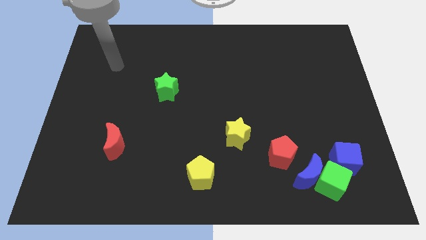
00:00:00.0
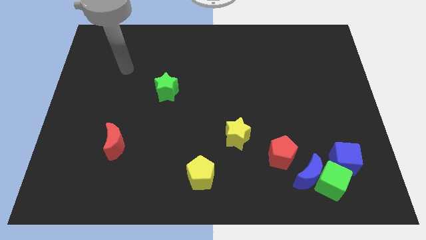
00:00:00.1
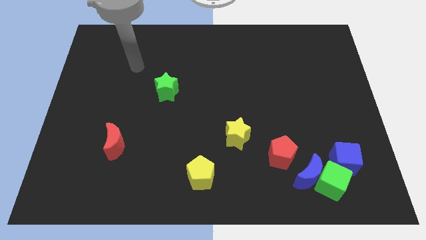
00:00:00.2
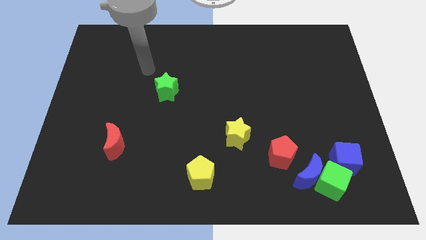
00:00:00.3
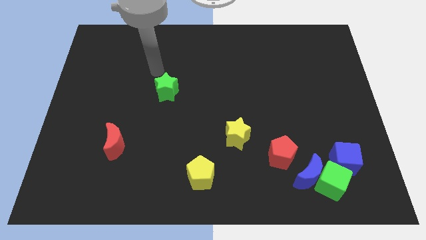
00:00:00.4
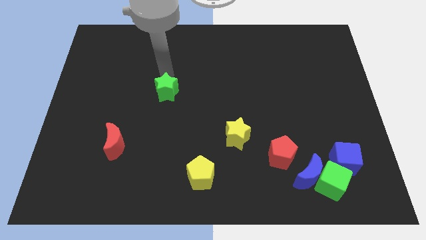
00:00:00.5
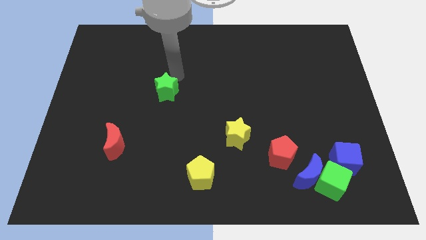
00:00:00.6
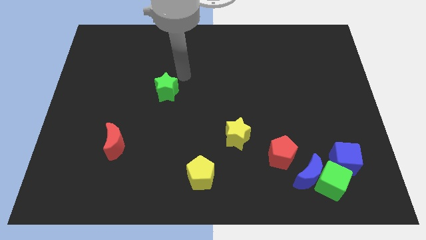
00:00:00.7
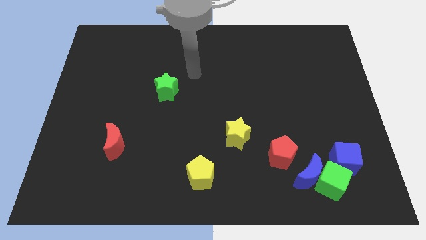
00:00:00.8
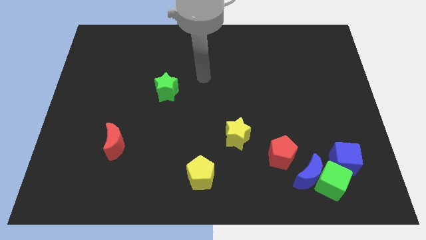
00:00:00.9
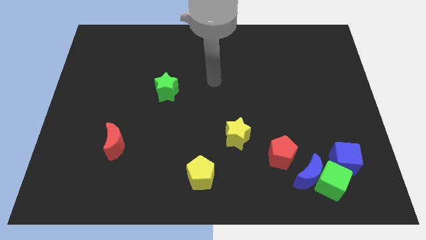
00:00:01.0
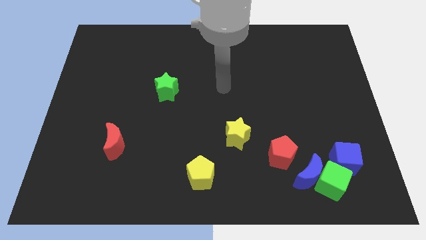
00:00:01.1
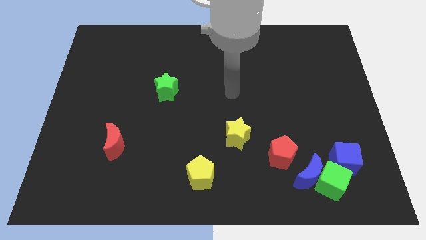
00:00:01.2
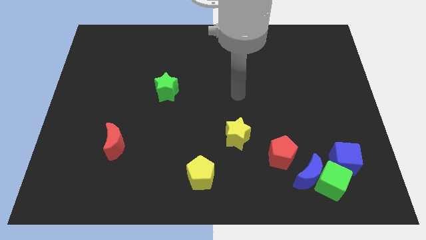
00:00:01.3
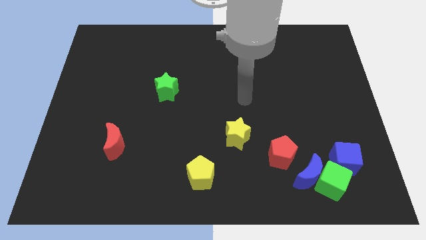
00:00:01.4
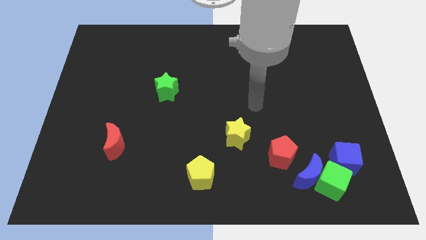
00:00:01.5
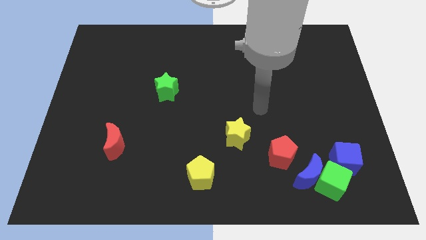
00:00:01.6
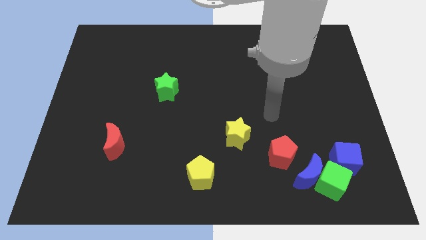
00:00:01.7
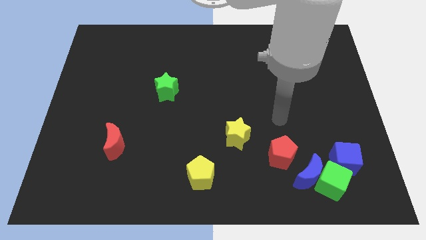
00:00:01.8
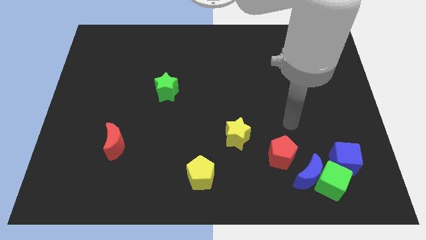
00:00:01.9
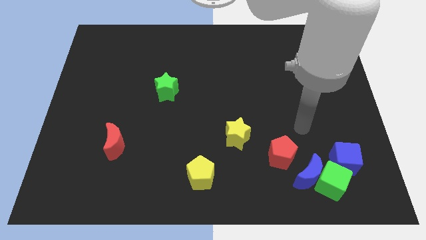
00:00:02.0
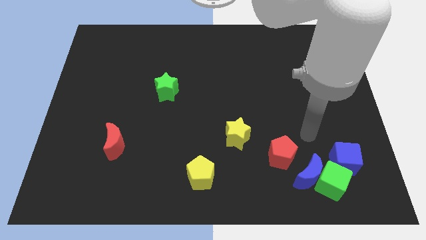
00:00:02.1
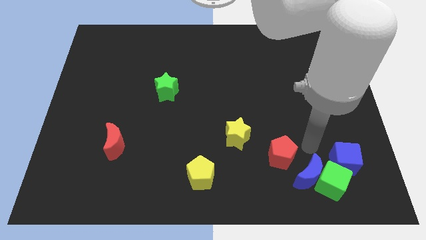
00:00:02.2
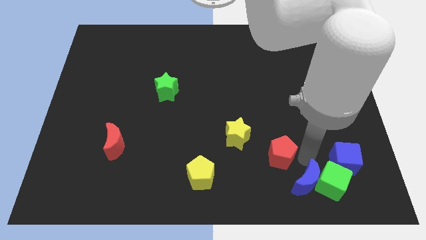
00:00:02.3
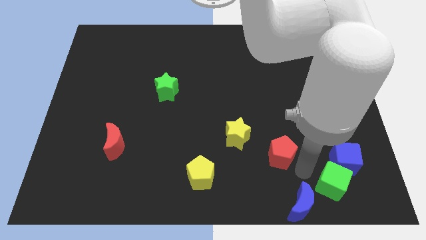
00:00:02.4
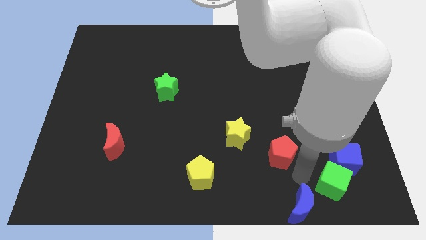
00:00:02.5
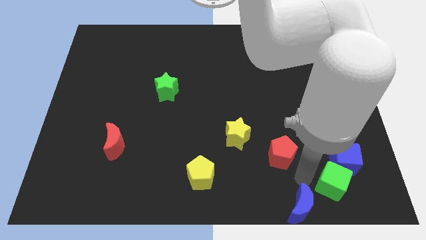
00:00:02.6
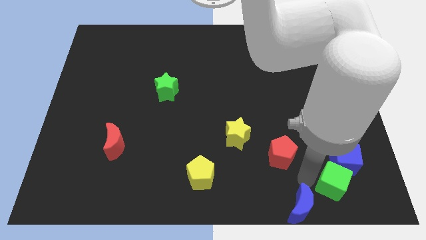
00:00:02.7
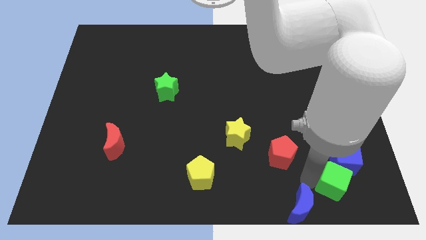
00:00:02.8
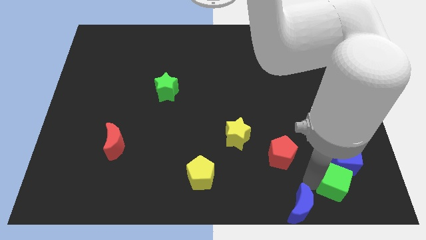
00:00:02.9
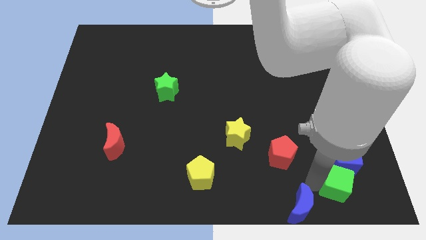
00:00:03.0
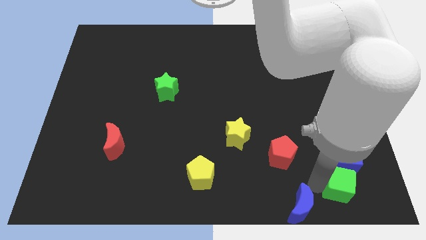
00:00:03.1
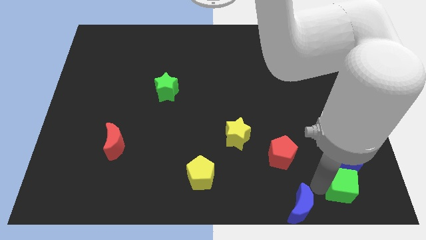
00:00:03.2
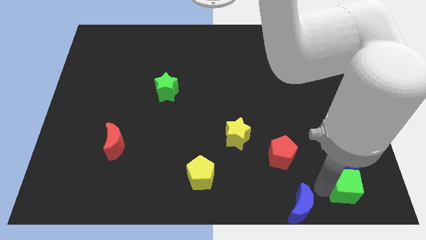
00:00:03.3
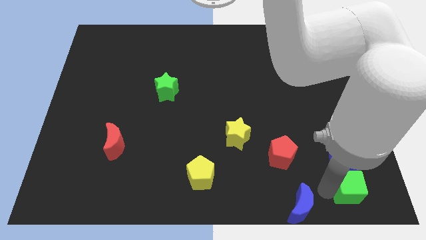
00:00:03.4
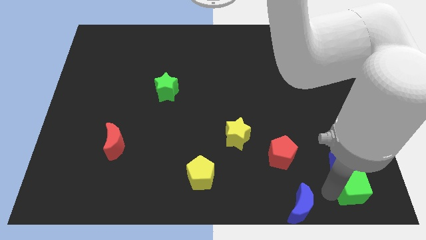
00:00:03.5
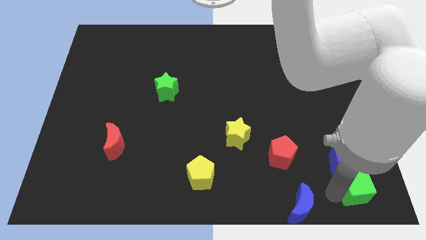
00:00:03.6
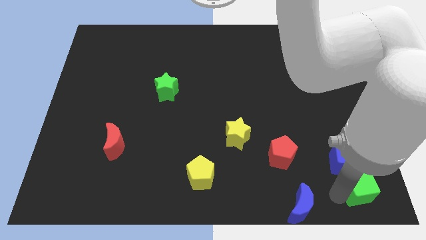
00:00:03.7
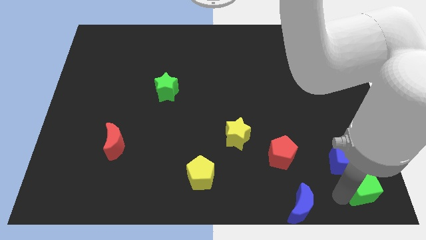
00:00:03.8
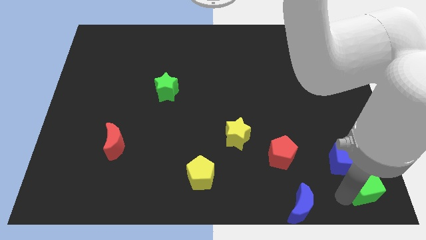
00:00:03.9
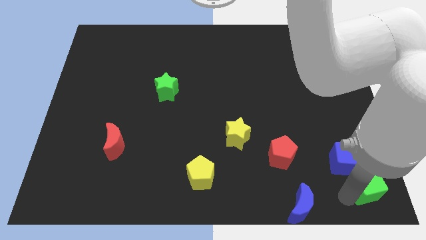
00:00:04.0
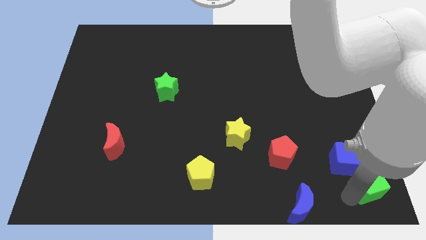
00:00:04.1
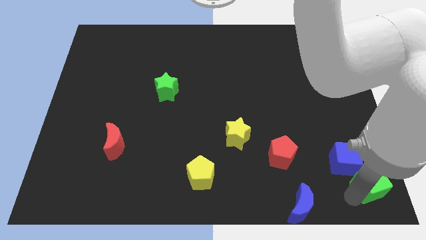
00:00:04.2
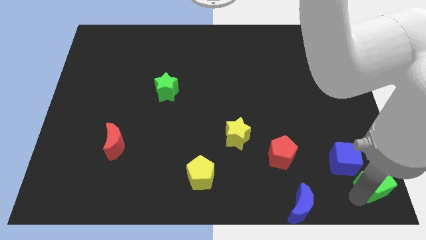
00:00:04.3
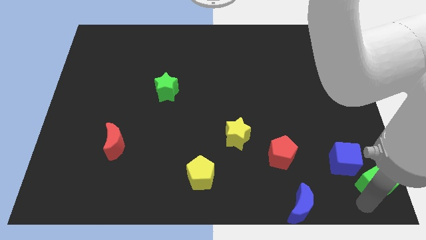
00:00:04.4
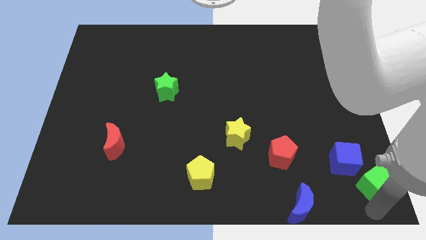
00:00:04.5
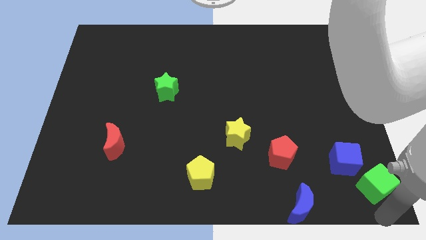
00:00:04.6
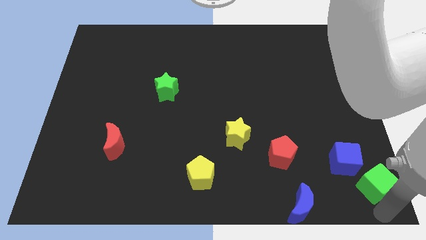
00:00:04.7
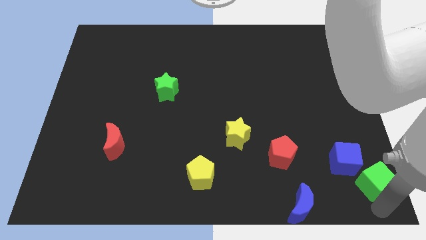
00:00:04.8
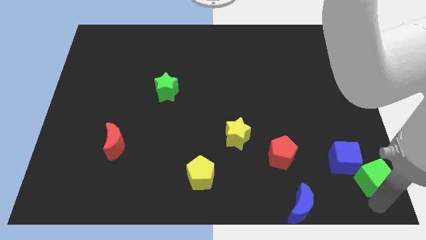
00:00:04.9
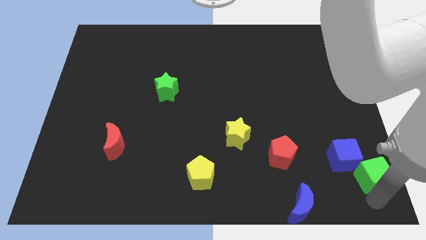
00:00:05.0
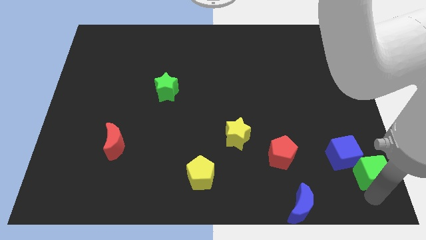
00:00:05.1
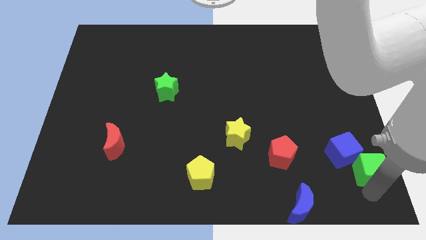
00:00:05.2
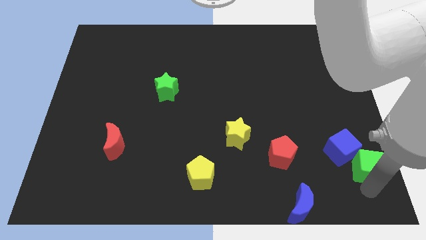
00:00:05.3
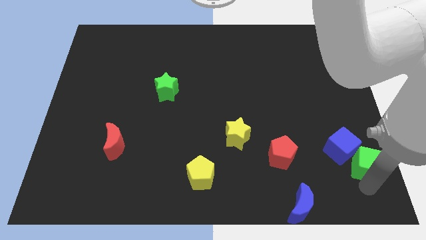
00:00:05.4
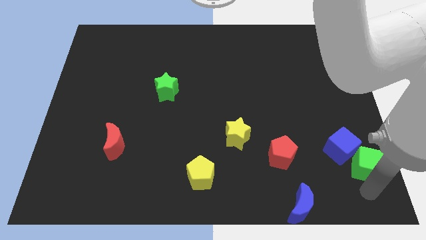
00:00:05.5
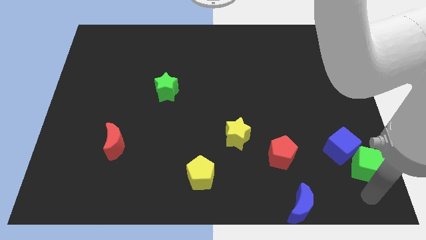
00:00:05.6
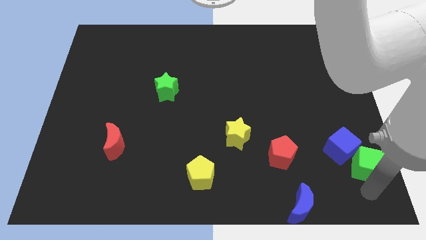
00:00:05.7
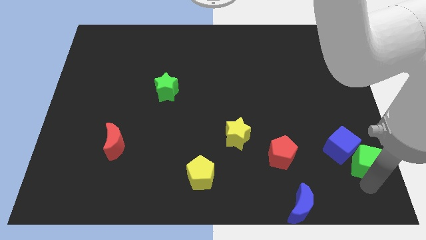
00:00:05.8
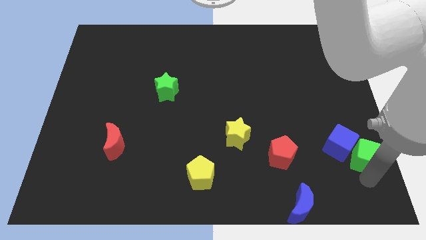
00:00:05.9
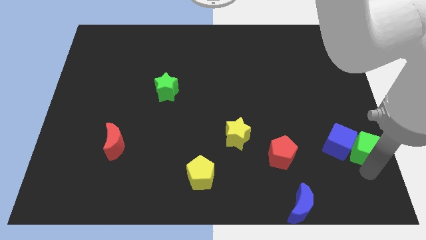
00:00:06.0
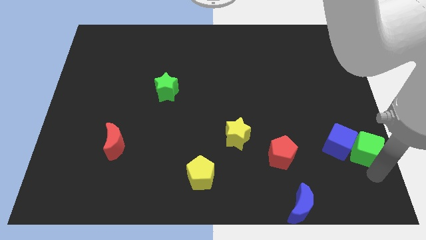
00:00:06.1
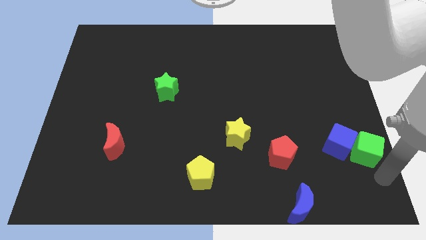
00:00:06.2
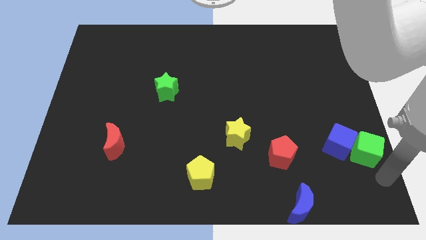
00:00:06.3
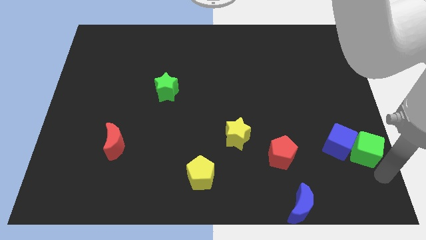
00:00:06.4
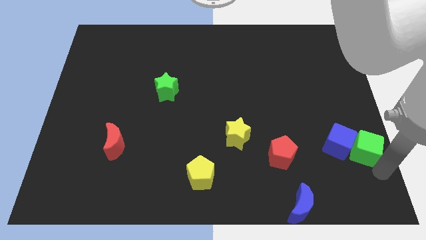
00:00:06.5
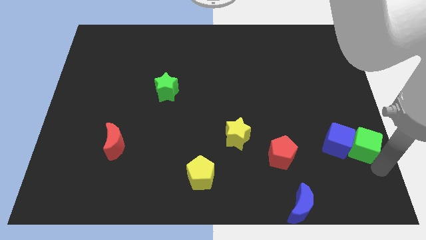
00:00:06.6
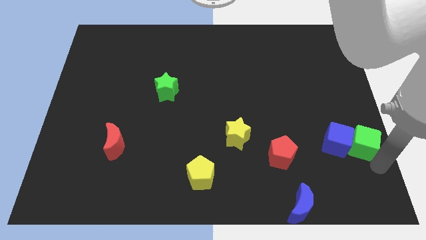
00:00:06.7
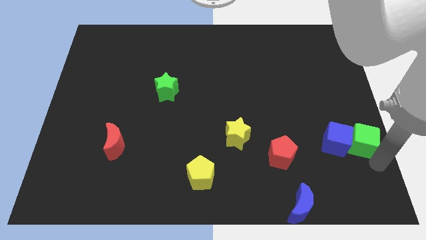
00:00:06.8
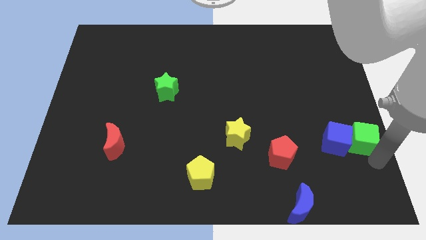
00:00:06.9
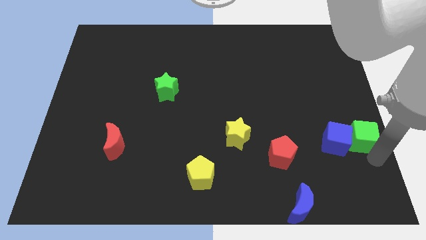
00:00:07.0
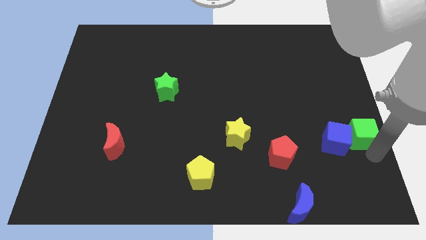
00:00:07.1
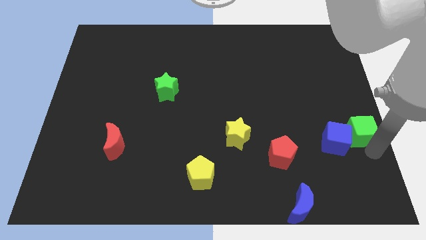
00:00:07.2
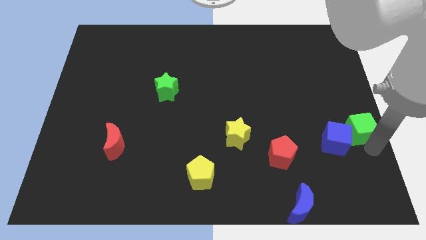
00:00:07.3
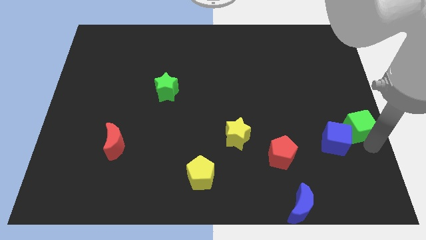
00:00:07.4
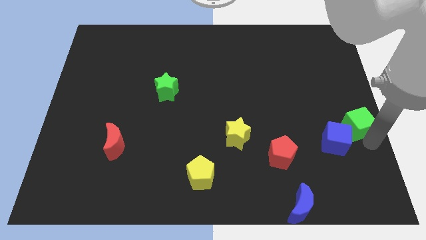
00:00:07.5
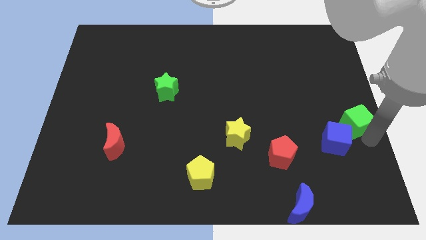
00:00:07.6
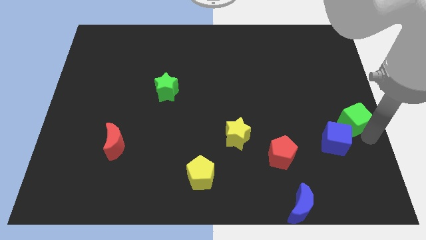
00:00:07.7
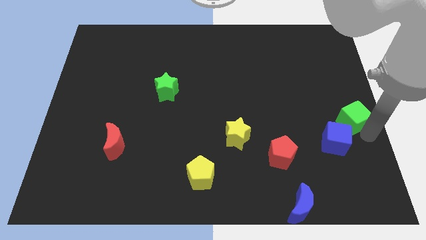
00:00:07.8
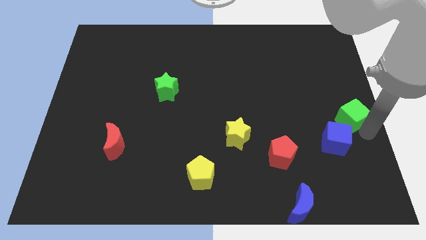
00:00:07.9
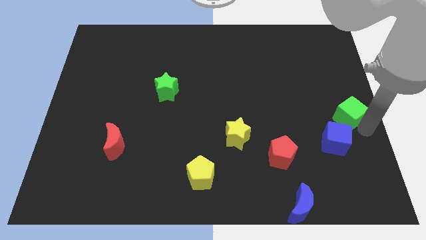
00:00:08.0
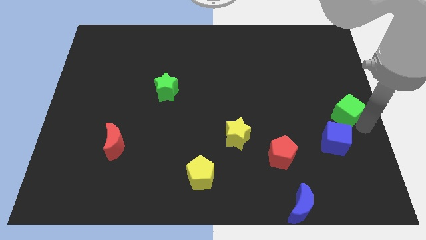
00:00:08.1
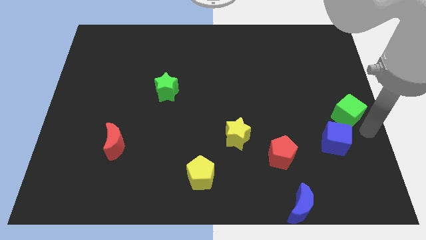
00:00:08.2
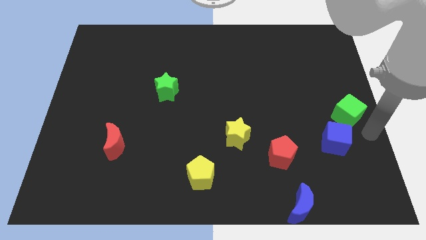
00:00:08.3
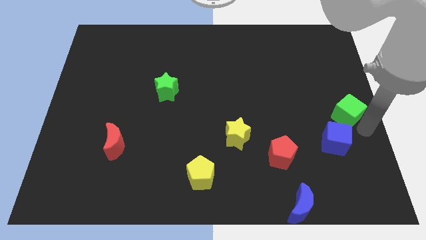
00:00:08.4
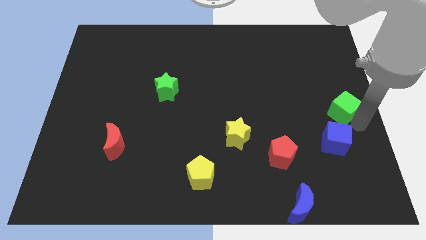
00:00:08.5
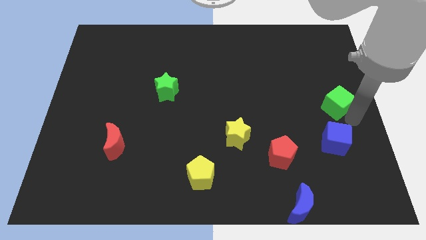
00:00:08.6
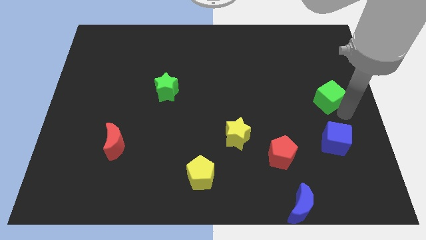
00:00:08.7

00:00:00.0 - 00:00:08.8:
move the green cube upwards
